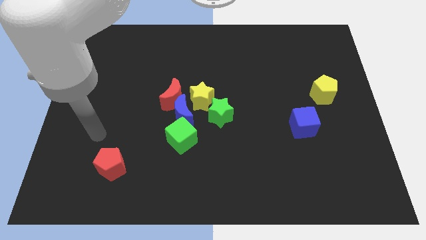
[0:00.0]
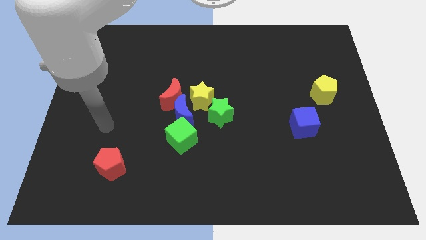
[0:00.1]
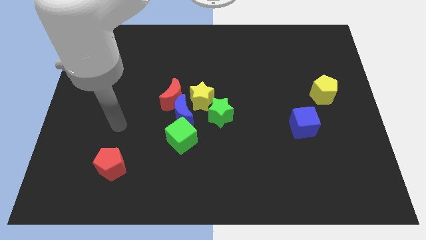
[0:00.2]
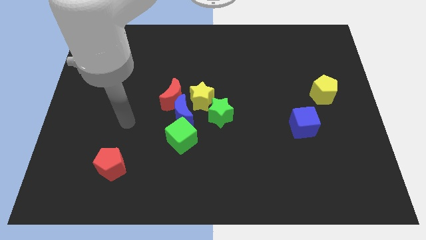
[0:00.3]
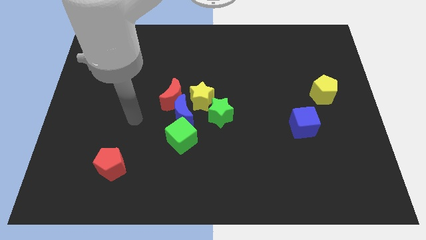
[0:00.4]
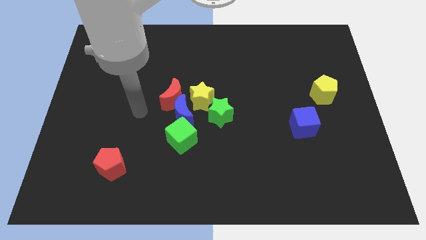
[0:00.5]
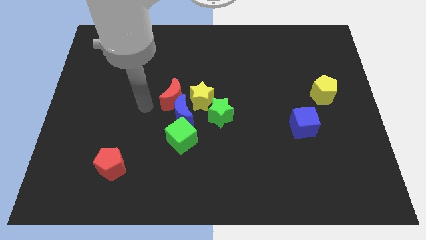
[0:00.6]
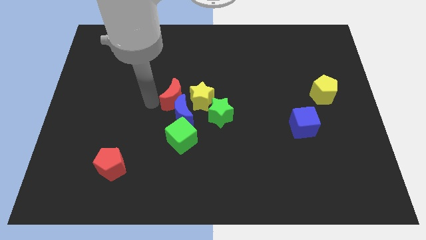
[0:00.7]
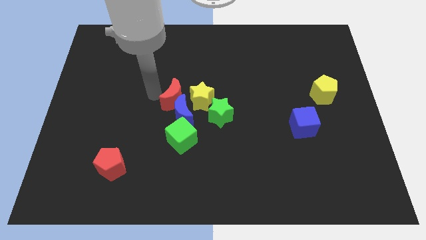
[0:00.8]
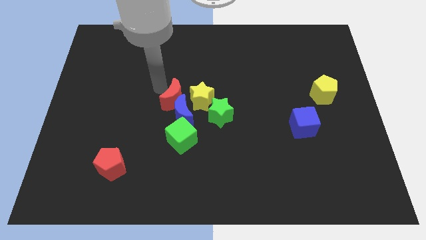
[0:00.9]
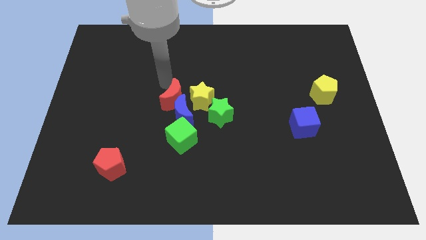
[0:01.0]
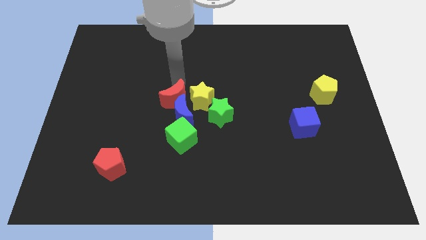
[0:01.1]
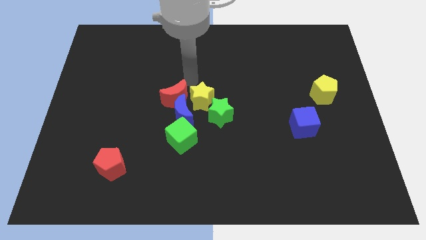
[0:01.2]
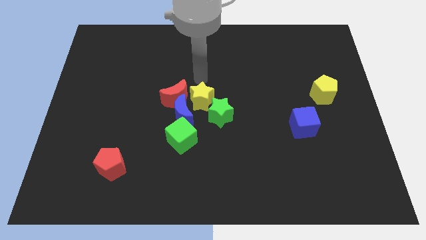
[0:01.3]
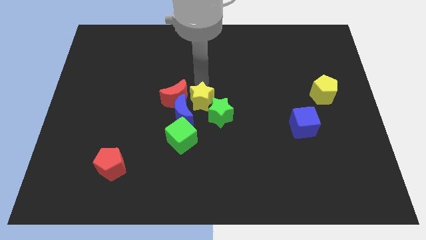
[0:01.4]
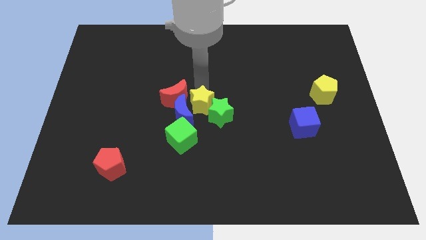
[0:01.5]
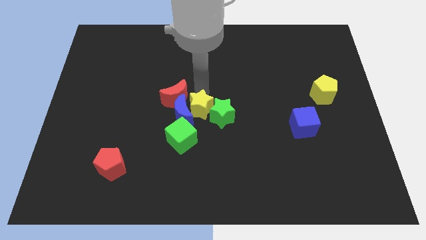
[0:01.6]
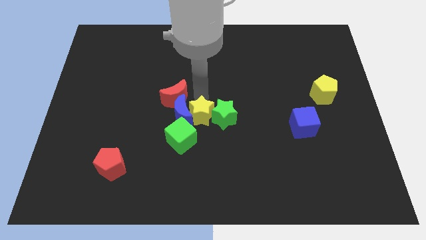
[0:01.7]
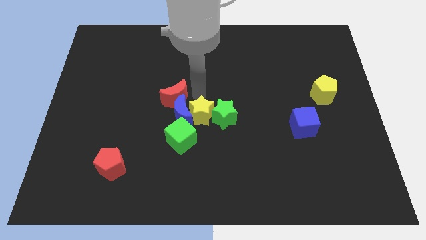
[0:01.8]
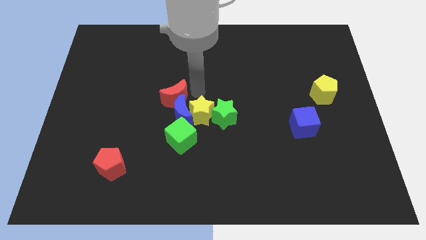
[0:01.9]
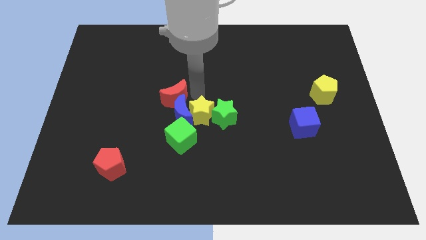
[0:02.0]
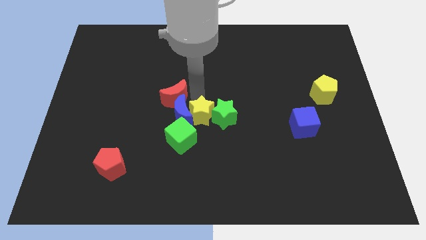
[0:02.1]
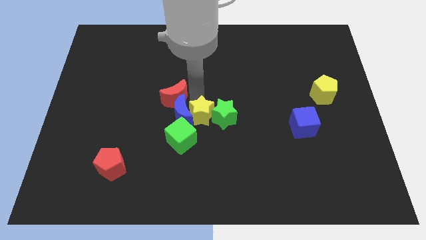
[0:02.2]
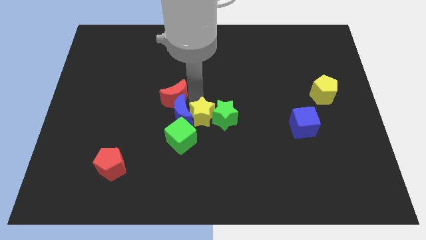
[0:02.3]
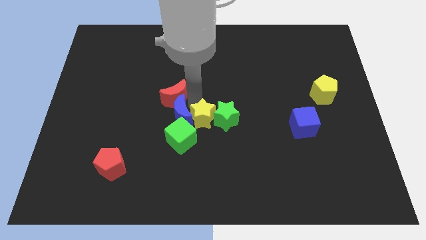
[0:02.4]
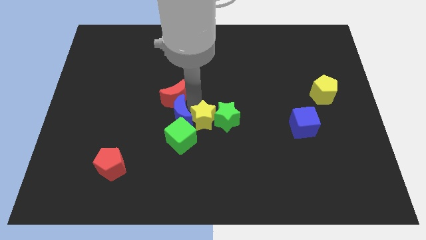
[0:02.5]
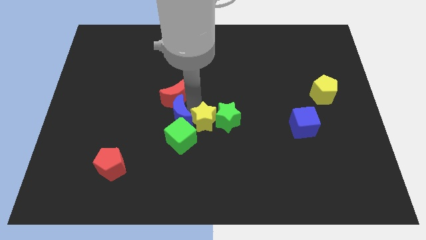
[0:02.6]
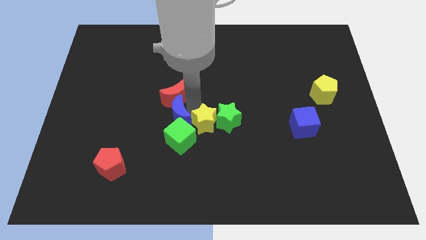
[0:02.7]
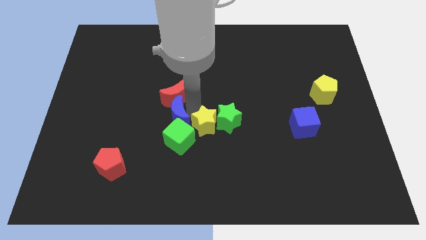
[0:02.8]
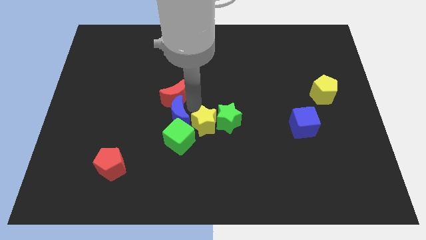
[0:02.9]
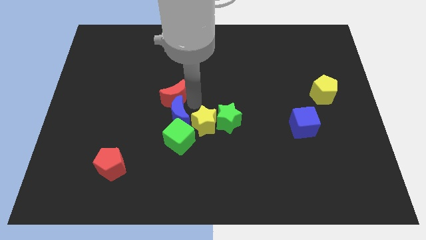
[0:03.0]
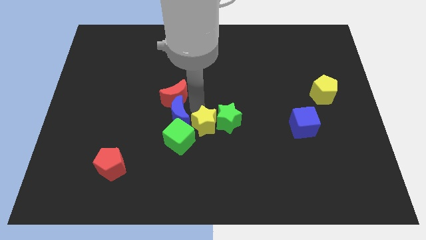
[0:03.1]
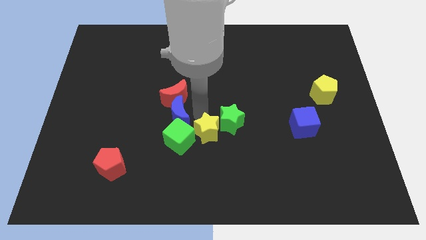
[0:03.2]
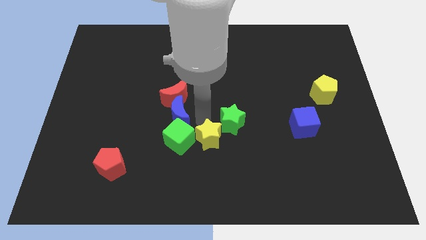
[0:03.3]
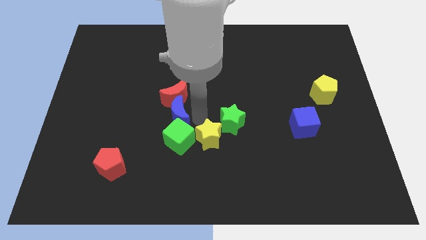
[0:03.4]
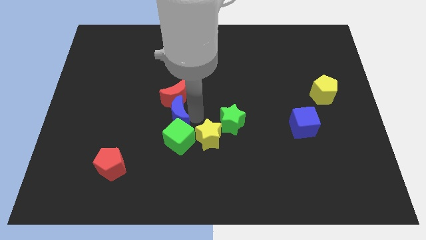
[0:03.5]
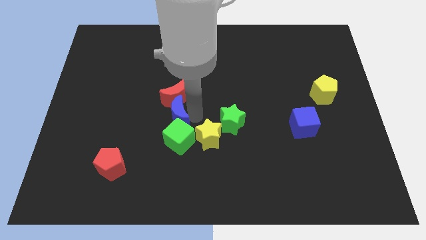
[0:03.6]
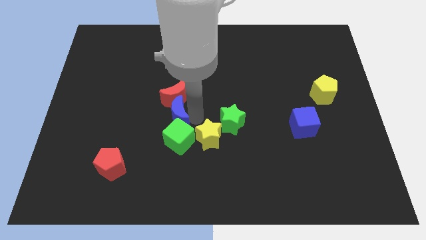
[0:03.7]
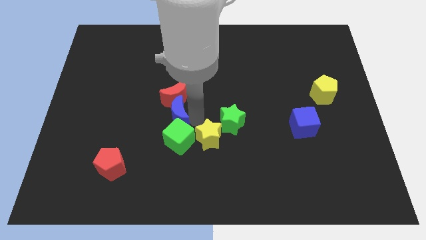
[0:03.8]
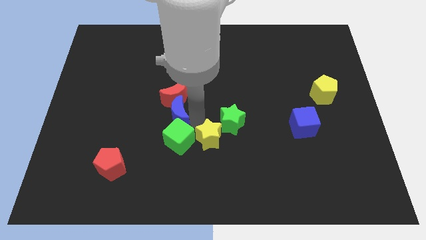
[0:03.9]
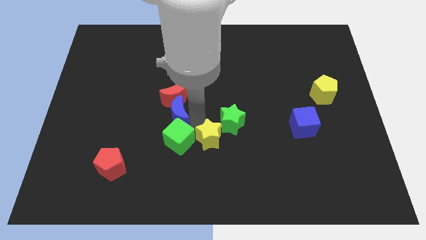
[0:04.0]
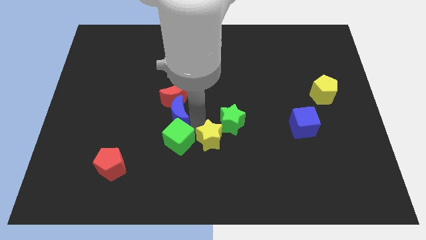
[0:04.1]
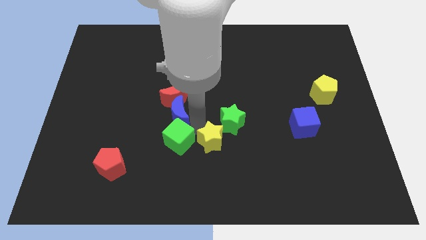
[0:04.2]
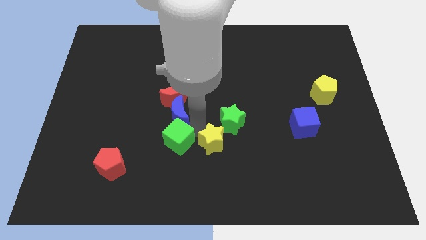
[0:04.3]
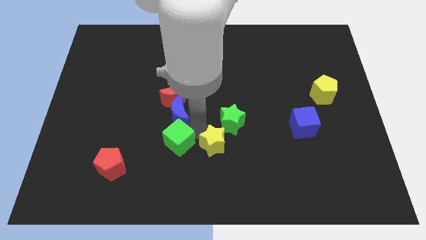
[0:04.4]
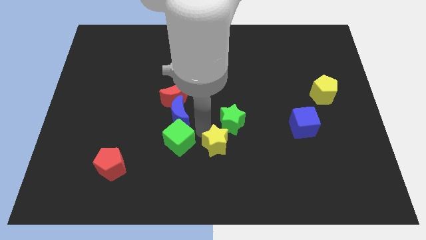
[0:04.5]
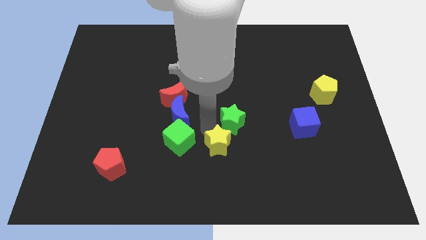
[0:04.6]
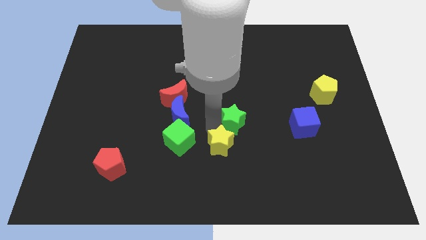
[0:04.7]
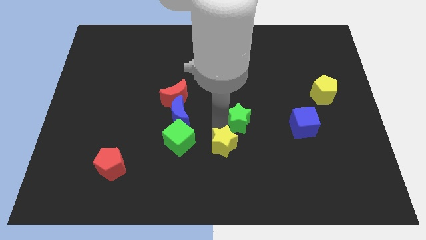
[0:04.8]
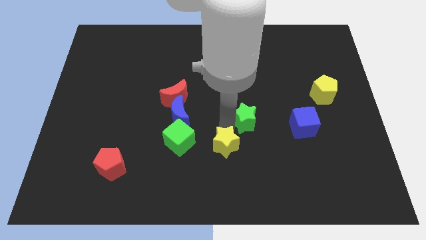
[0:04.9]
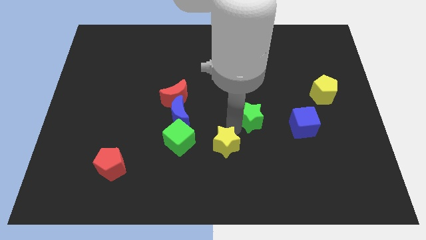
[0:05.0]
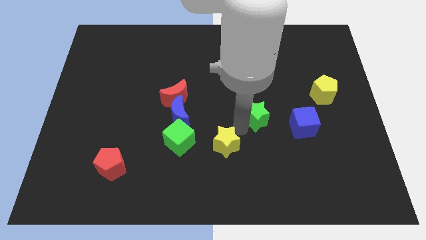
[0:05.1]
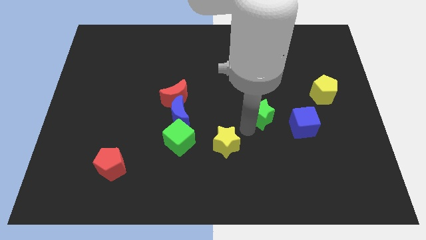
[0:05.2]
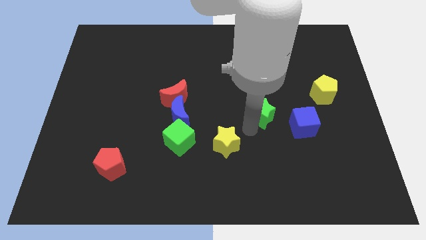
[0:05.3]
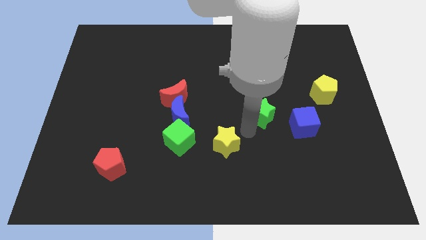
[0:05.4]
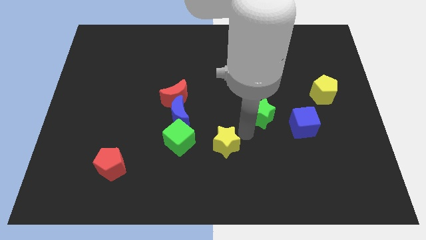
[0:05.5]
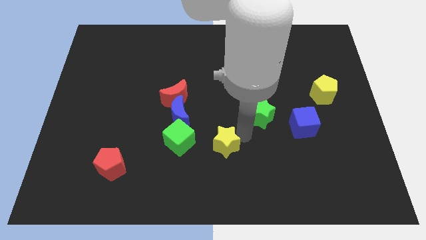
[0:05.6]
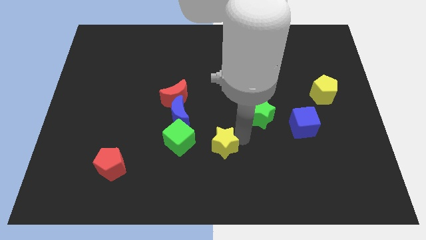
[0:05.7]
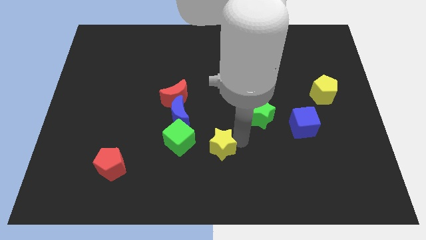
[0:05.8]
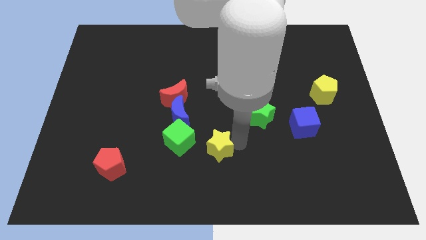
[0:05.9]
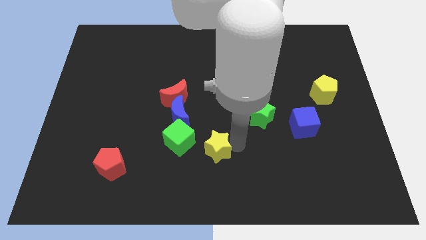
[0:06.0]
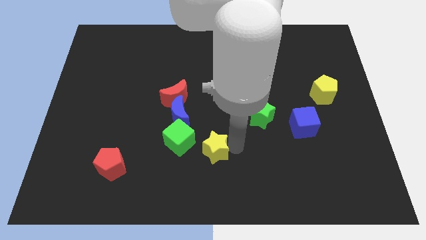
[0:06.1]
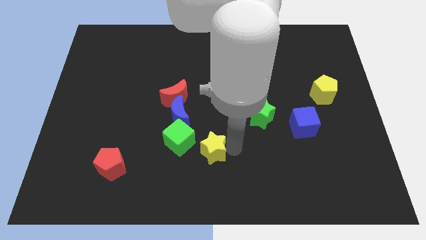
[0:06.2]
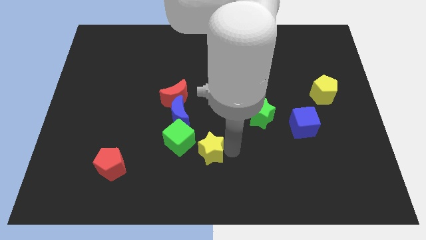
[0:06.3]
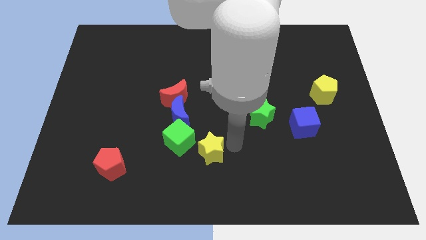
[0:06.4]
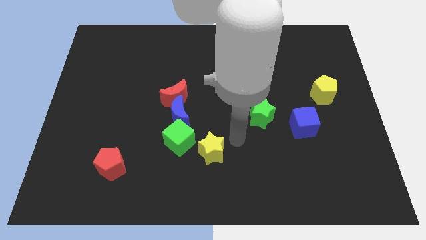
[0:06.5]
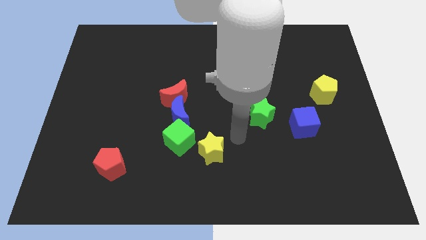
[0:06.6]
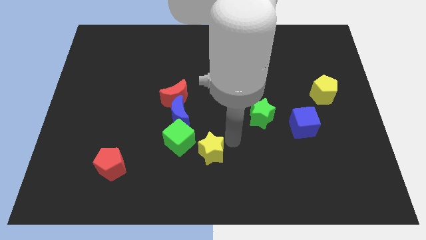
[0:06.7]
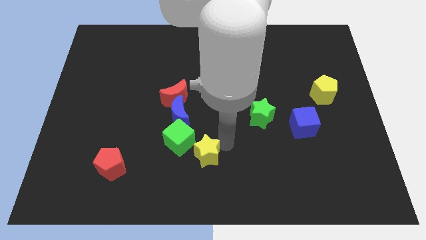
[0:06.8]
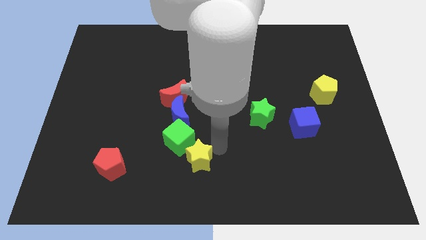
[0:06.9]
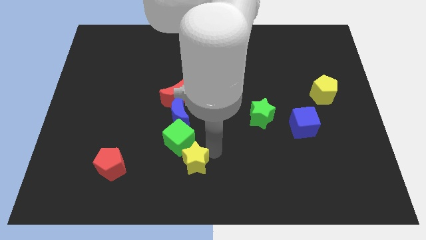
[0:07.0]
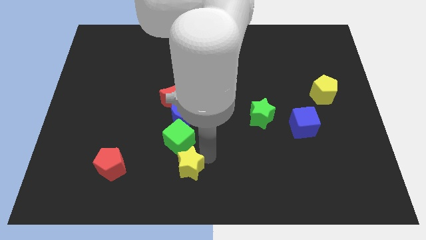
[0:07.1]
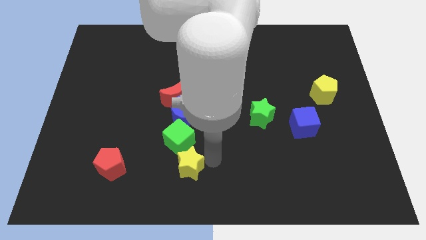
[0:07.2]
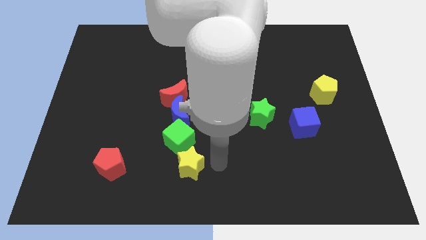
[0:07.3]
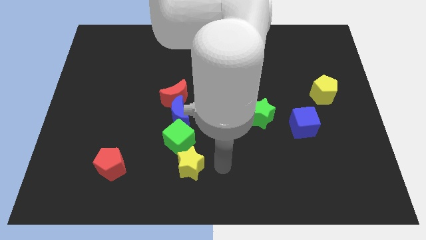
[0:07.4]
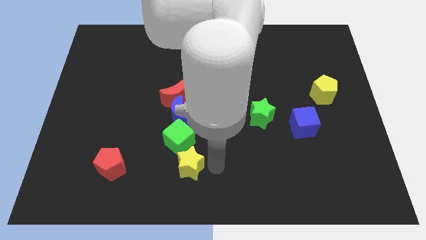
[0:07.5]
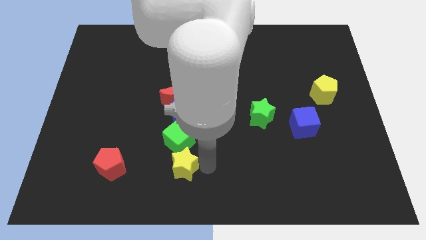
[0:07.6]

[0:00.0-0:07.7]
push the yellow star to the right side of the red pentagon
